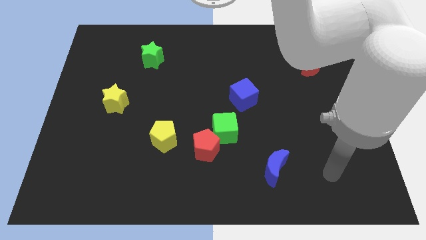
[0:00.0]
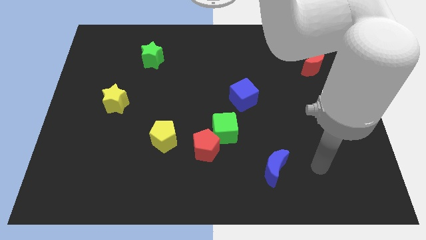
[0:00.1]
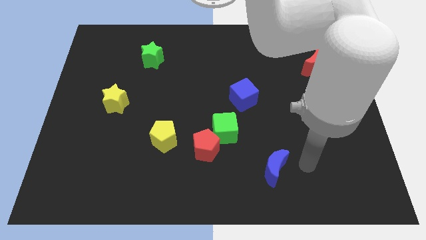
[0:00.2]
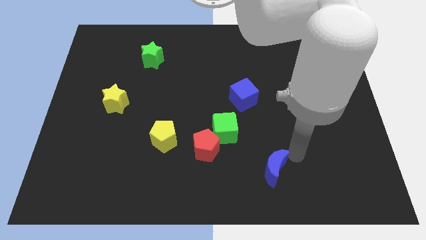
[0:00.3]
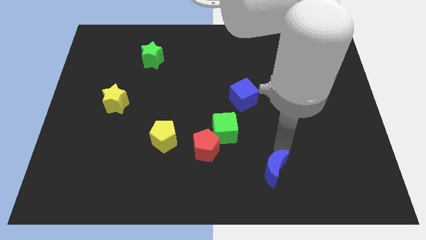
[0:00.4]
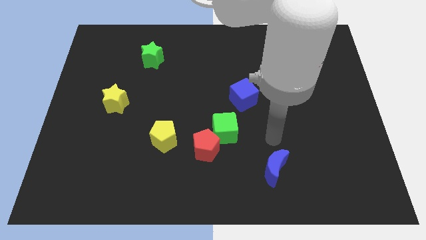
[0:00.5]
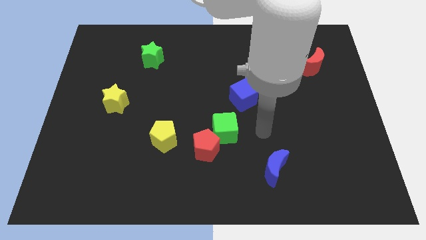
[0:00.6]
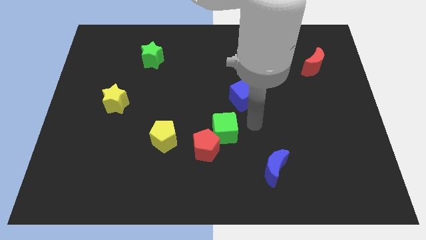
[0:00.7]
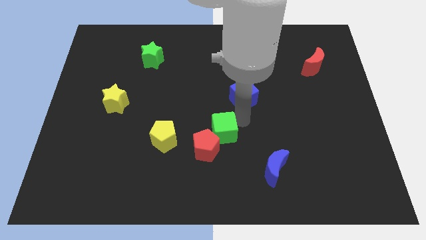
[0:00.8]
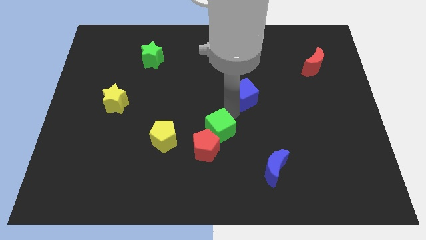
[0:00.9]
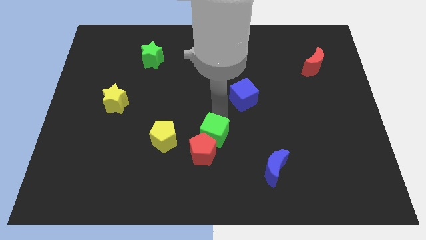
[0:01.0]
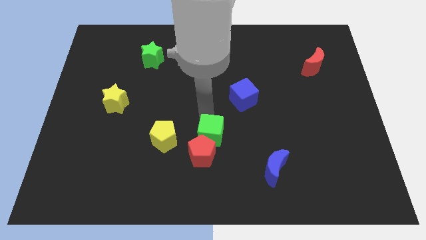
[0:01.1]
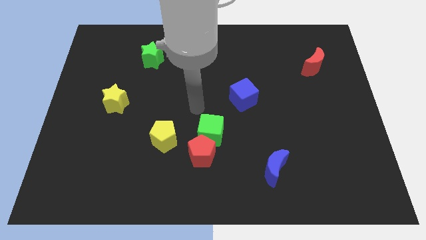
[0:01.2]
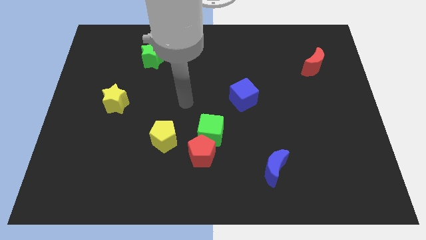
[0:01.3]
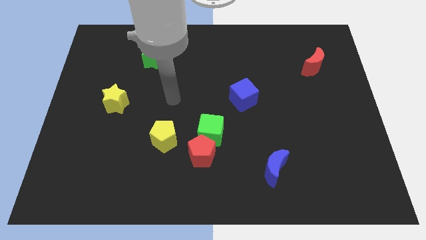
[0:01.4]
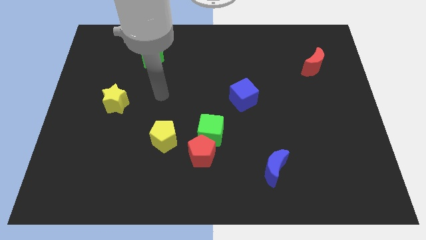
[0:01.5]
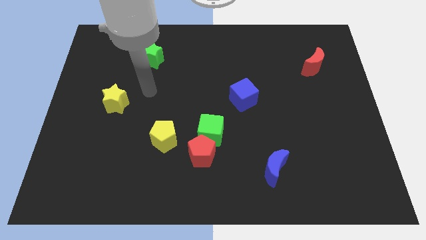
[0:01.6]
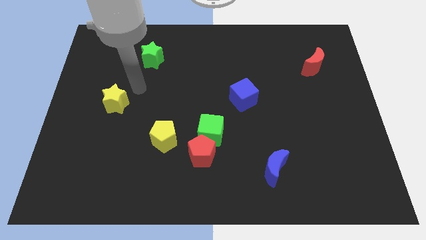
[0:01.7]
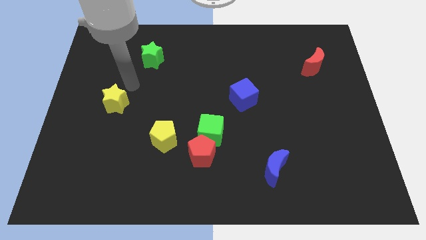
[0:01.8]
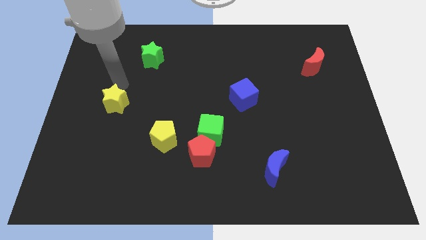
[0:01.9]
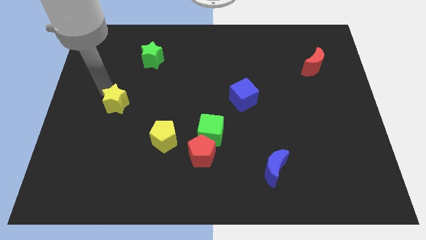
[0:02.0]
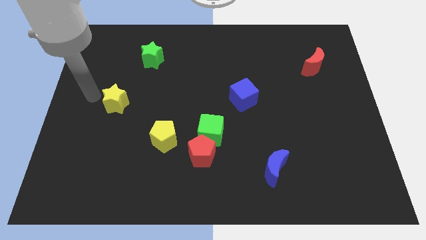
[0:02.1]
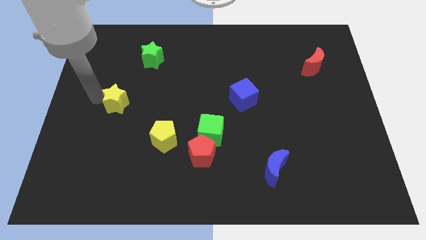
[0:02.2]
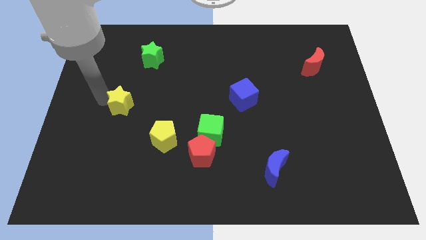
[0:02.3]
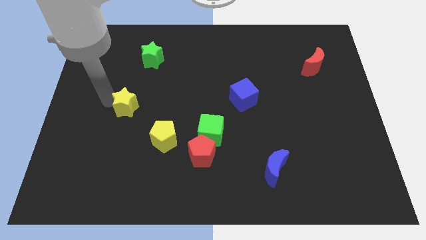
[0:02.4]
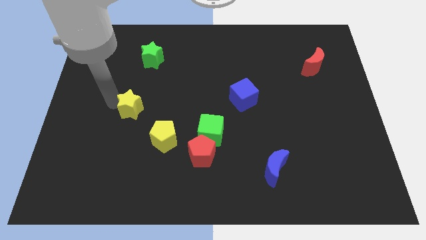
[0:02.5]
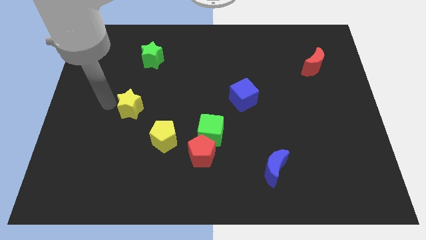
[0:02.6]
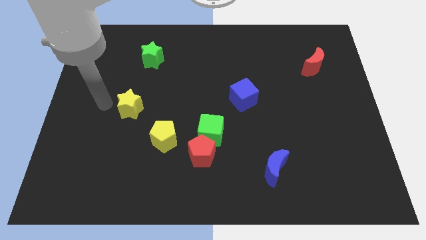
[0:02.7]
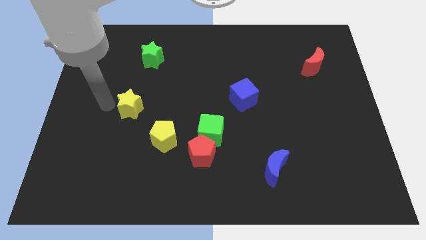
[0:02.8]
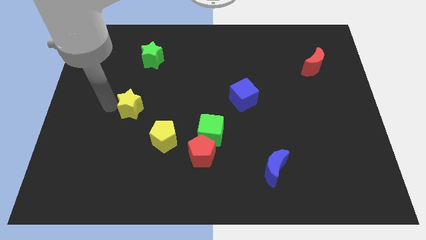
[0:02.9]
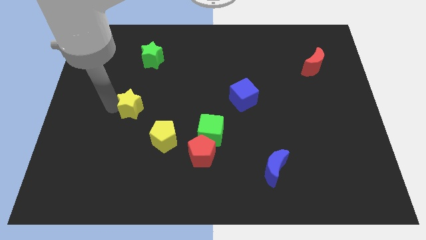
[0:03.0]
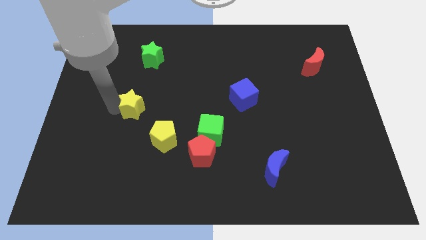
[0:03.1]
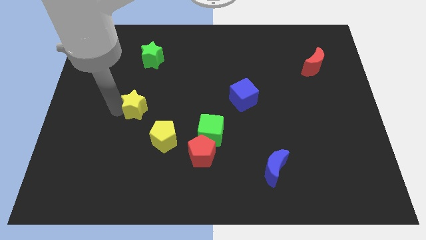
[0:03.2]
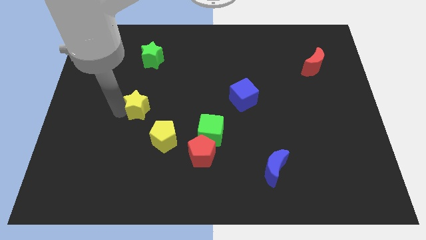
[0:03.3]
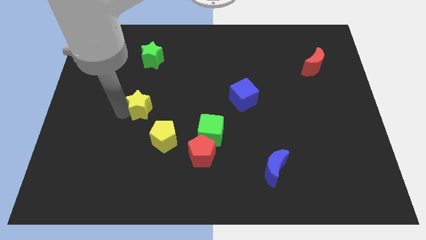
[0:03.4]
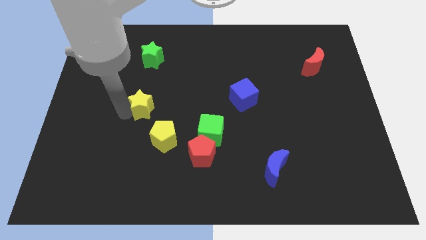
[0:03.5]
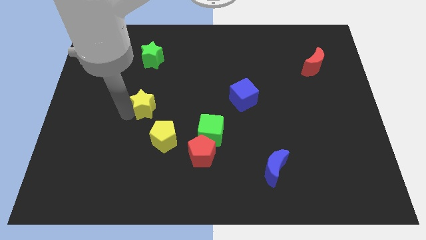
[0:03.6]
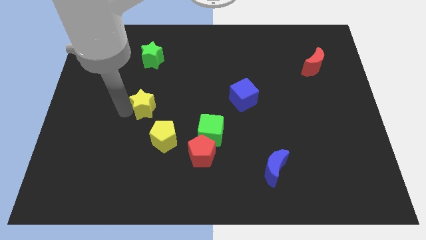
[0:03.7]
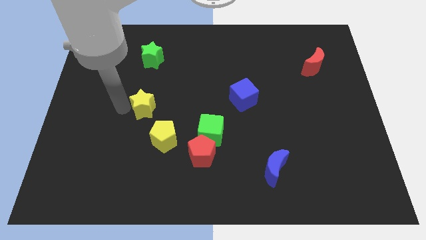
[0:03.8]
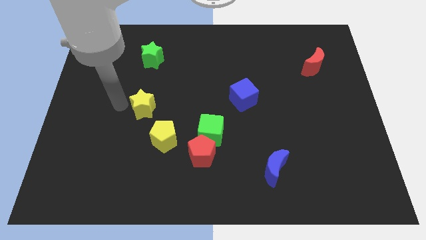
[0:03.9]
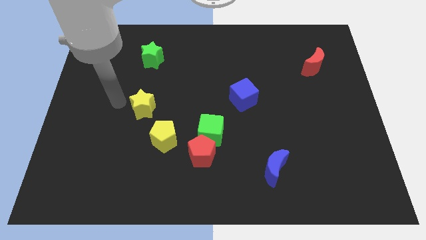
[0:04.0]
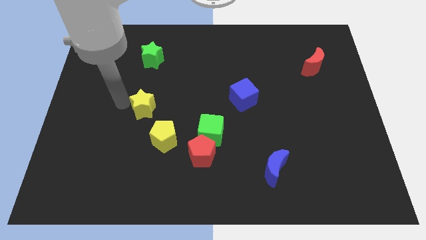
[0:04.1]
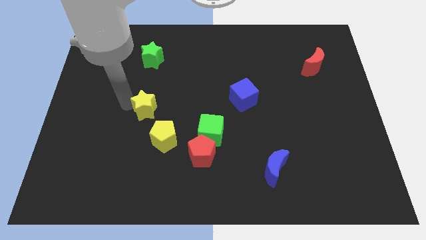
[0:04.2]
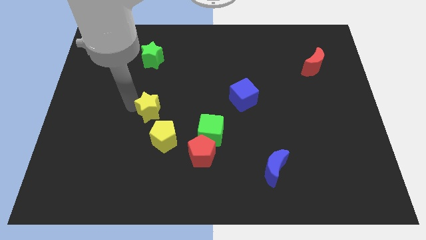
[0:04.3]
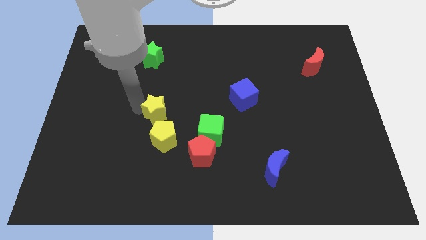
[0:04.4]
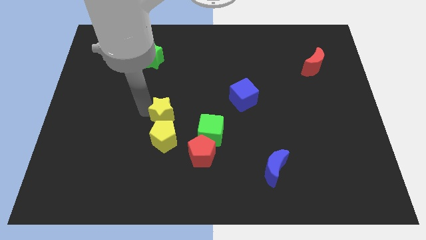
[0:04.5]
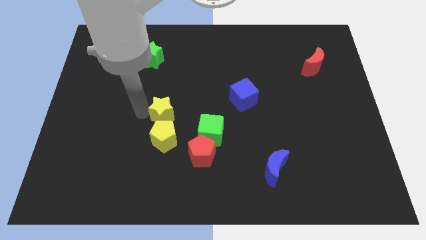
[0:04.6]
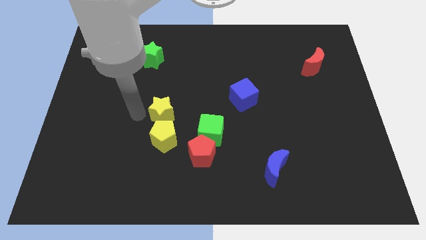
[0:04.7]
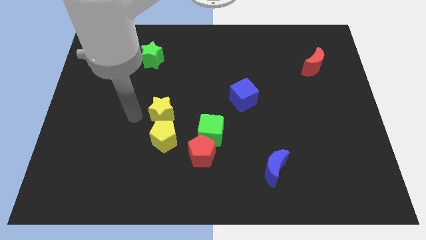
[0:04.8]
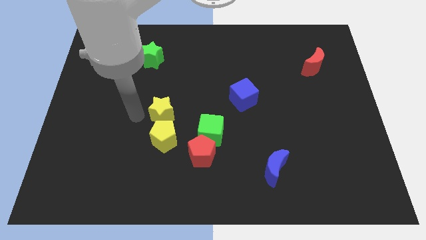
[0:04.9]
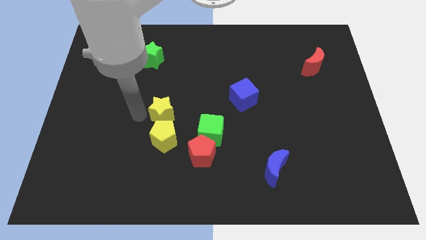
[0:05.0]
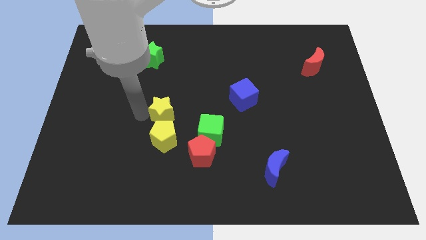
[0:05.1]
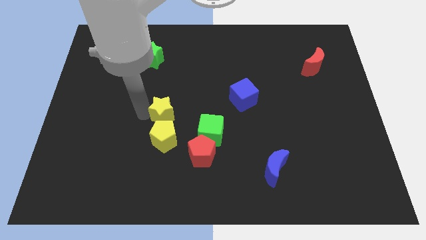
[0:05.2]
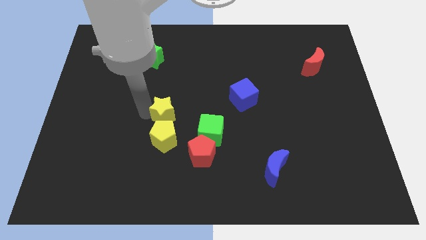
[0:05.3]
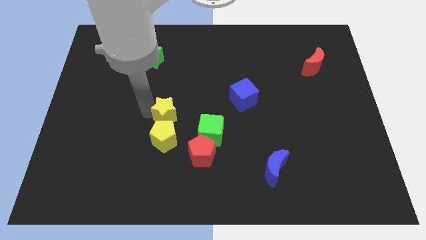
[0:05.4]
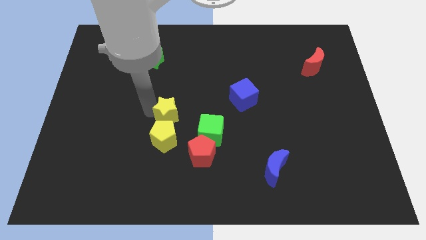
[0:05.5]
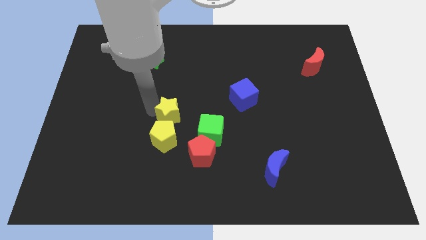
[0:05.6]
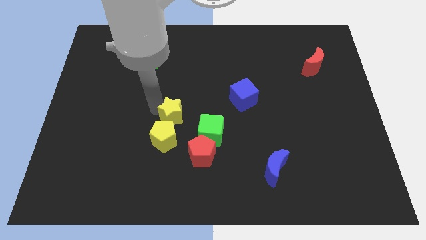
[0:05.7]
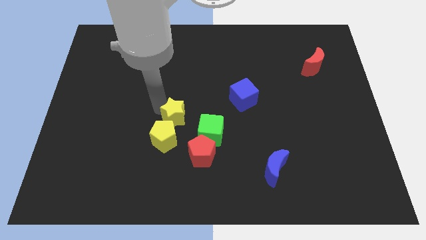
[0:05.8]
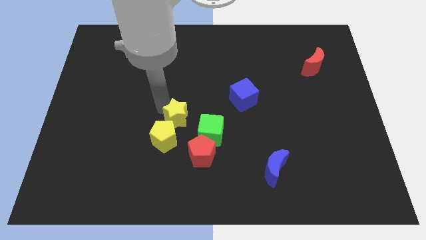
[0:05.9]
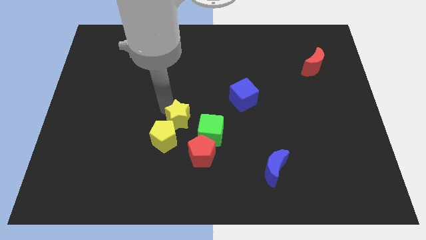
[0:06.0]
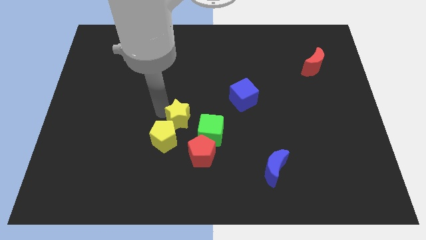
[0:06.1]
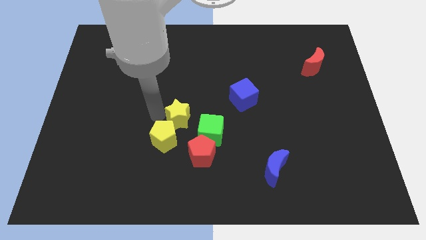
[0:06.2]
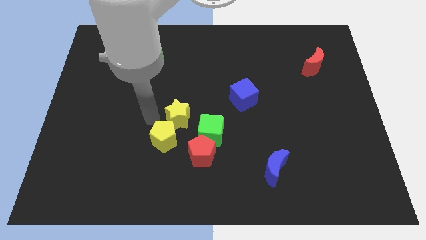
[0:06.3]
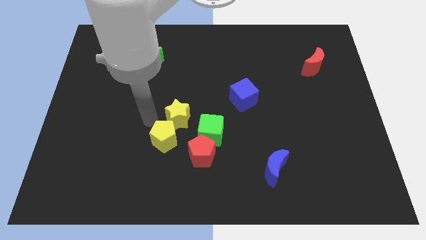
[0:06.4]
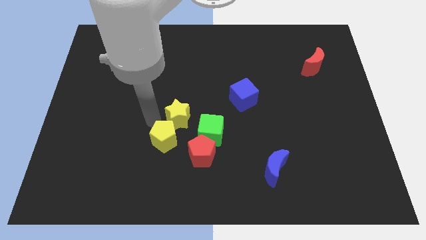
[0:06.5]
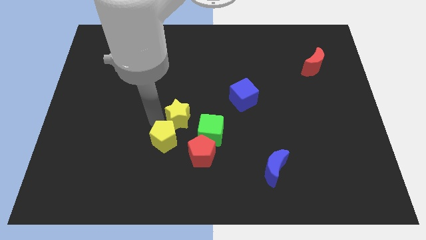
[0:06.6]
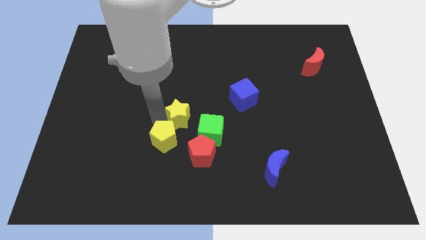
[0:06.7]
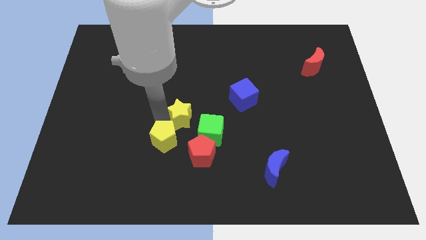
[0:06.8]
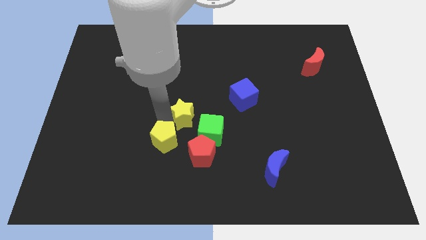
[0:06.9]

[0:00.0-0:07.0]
move the yellow star above the red pentagon
